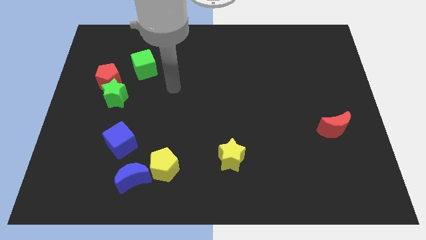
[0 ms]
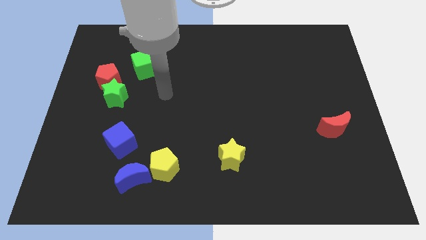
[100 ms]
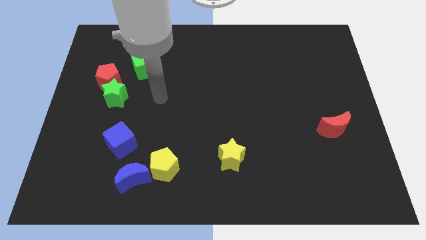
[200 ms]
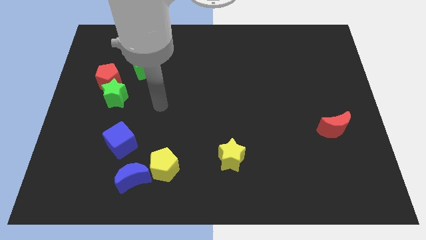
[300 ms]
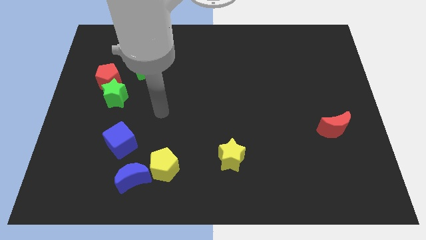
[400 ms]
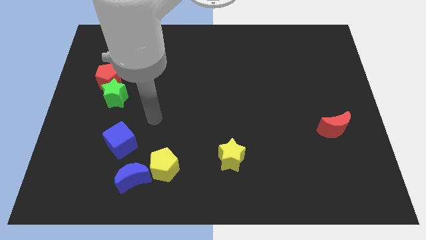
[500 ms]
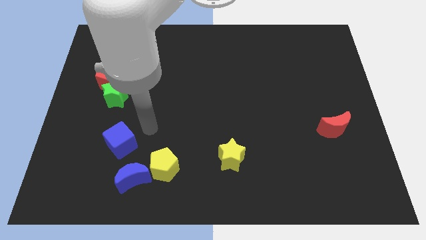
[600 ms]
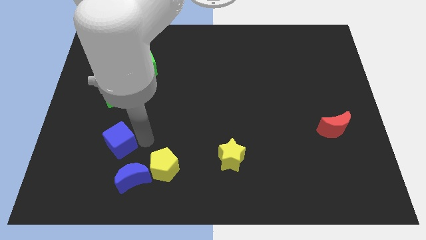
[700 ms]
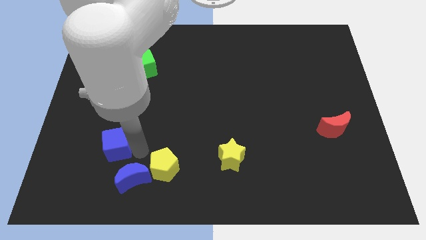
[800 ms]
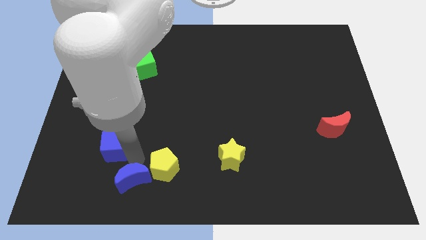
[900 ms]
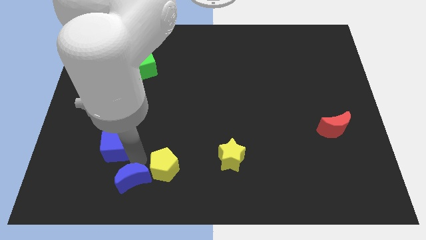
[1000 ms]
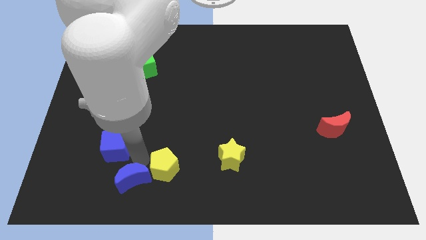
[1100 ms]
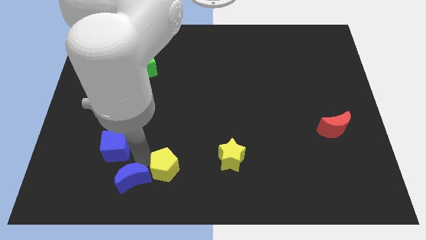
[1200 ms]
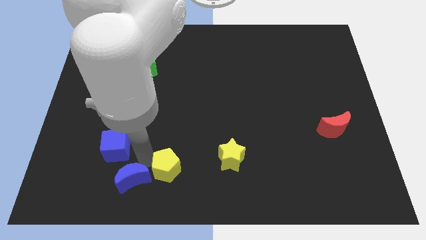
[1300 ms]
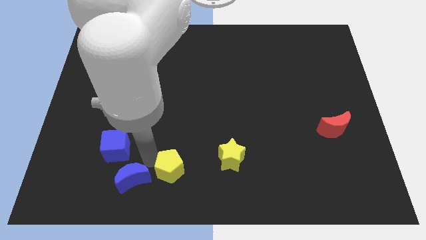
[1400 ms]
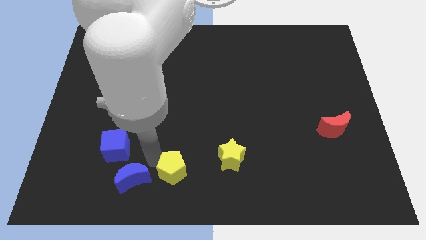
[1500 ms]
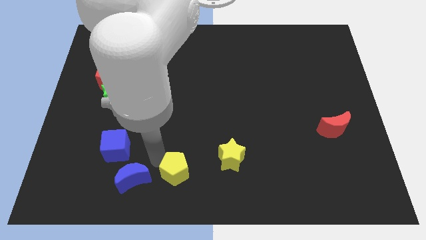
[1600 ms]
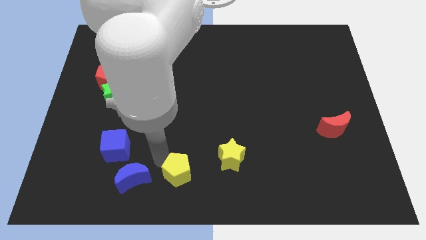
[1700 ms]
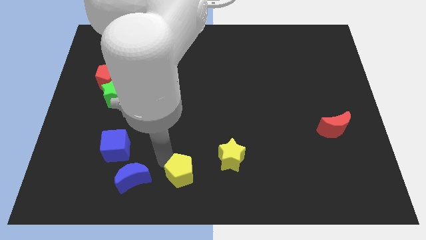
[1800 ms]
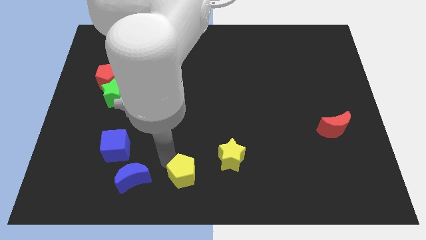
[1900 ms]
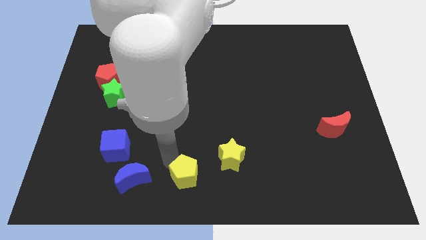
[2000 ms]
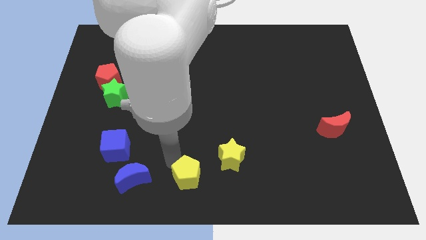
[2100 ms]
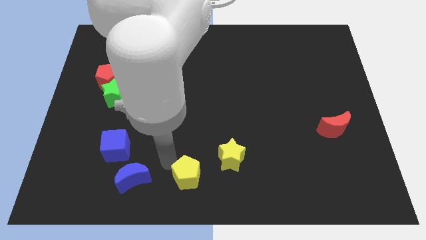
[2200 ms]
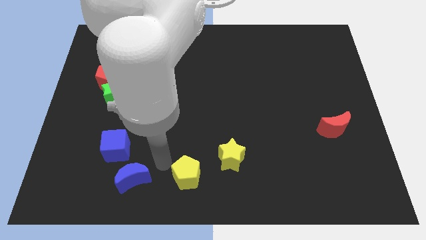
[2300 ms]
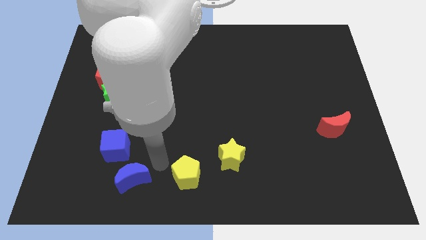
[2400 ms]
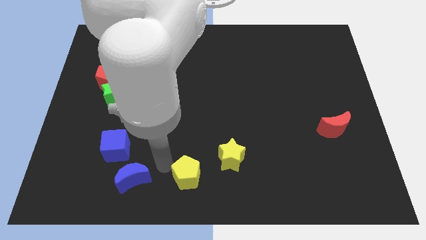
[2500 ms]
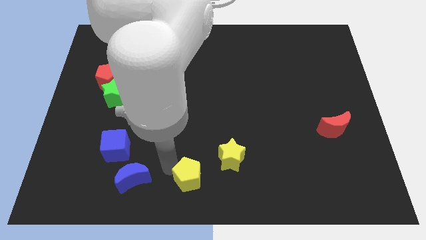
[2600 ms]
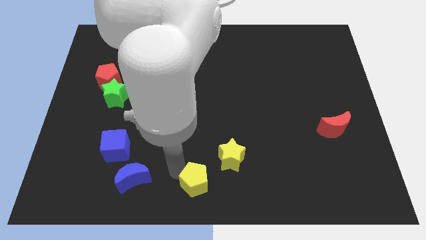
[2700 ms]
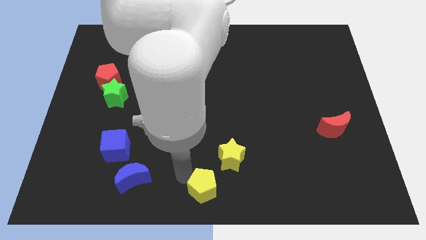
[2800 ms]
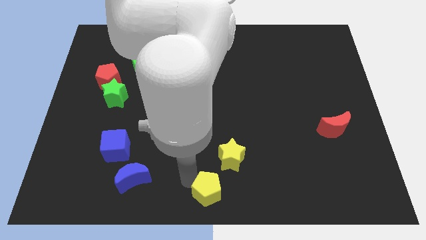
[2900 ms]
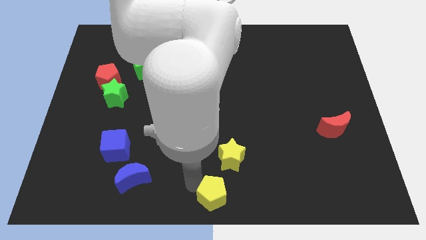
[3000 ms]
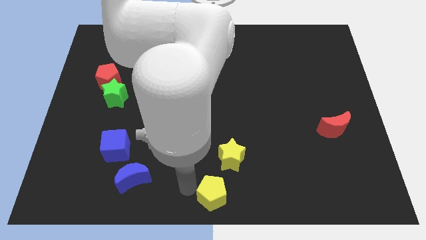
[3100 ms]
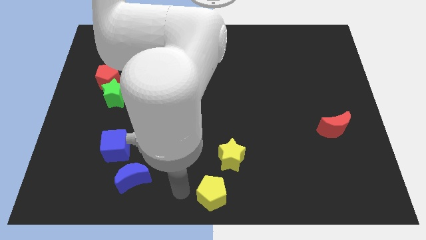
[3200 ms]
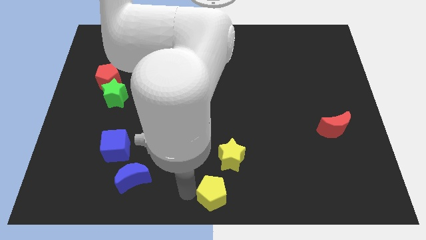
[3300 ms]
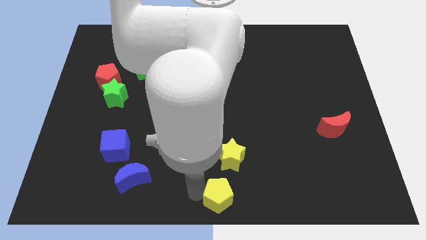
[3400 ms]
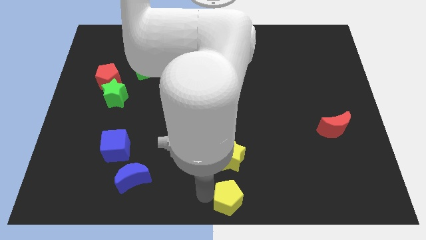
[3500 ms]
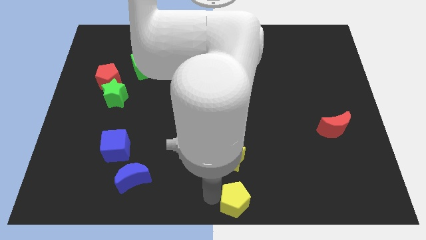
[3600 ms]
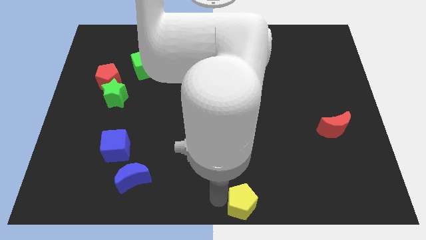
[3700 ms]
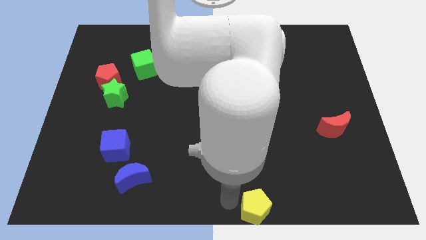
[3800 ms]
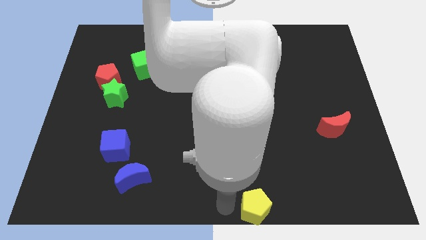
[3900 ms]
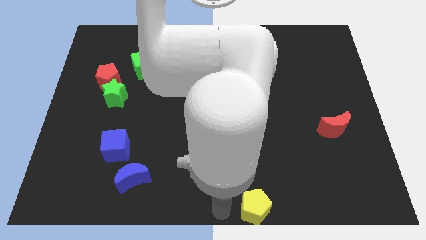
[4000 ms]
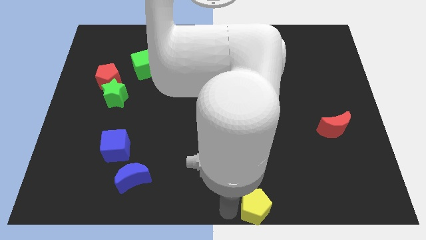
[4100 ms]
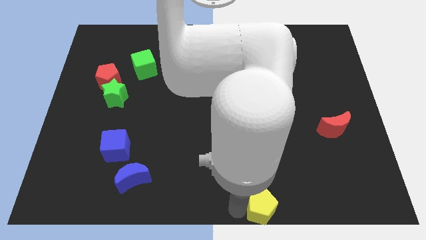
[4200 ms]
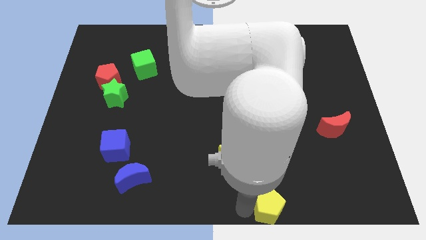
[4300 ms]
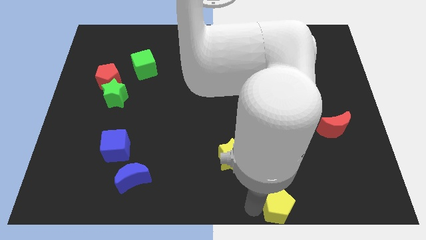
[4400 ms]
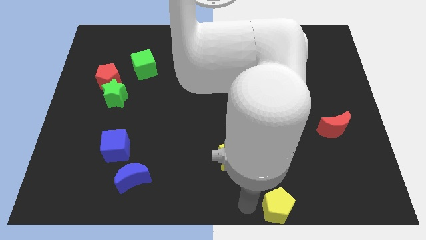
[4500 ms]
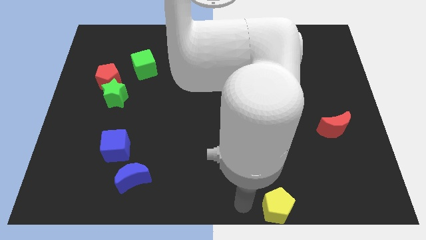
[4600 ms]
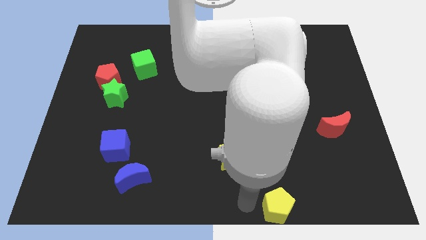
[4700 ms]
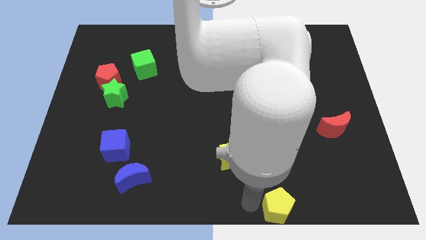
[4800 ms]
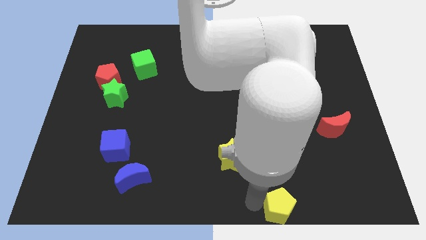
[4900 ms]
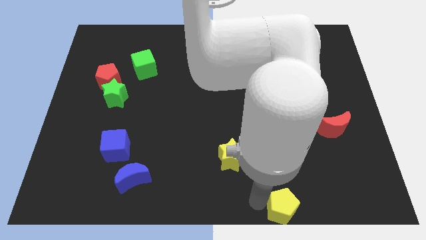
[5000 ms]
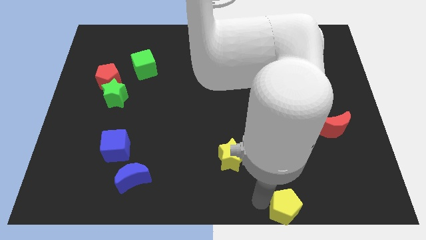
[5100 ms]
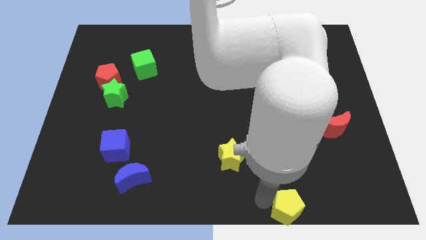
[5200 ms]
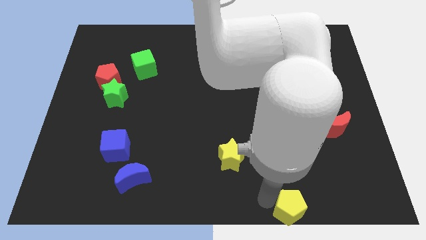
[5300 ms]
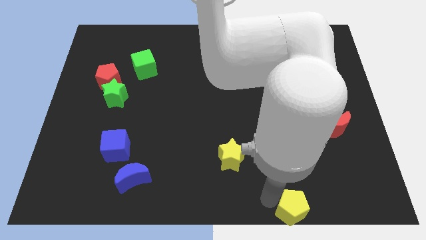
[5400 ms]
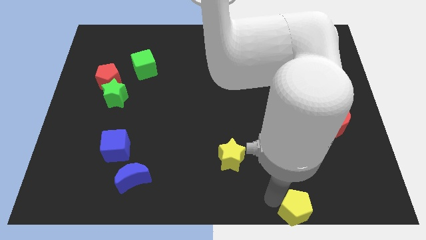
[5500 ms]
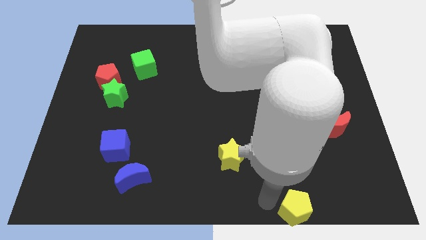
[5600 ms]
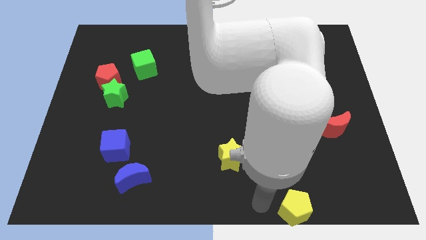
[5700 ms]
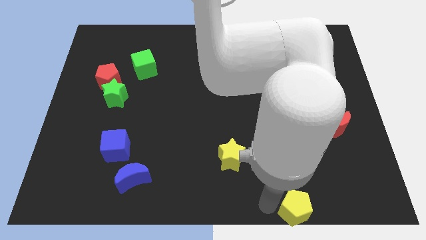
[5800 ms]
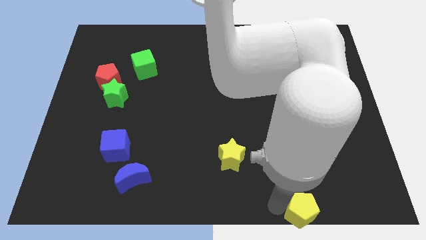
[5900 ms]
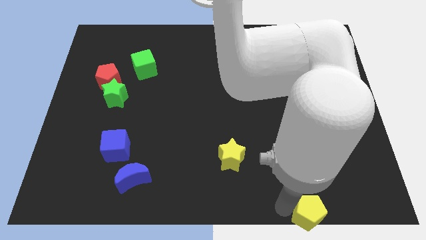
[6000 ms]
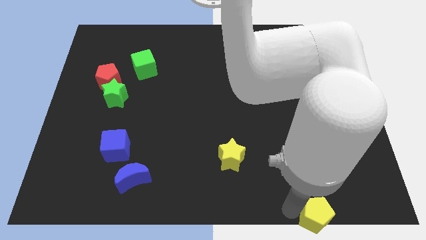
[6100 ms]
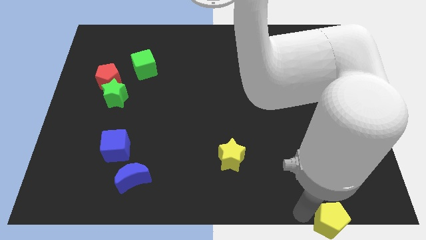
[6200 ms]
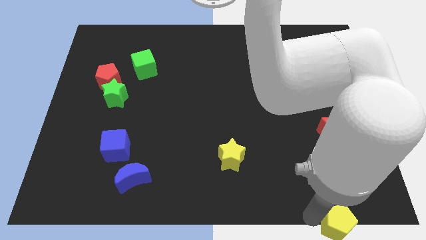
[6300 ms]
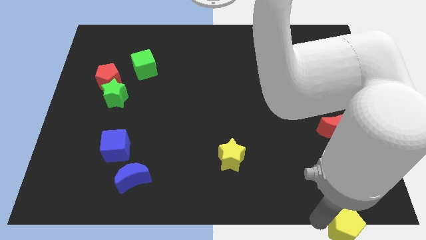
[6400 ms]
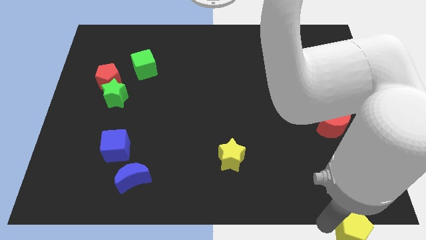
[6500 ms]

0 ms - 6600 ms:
move the yellow pentagon to the bottom right of the board
